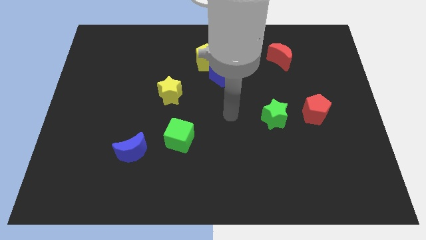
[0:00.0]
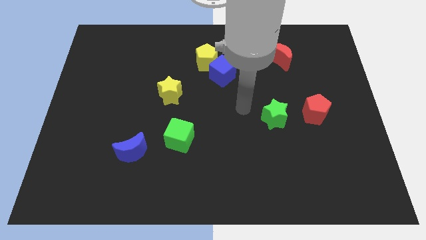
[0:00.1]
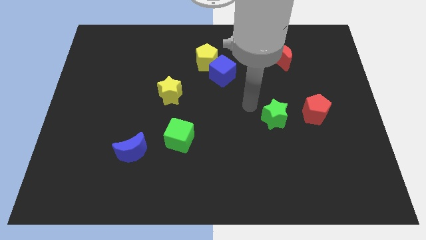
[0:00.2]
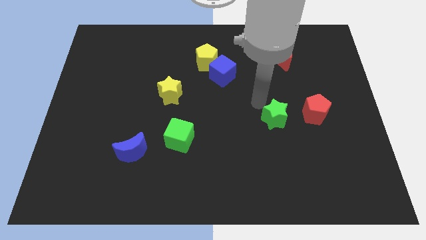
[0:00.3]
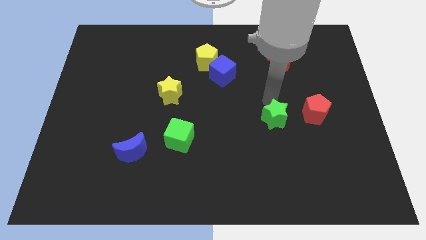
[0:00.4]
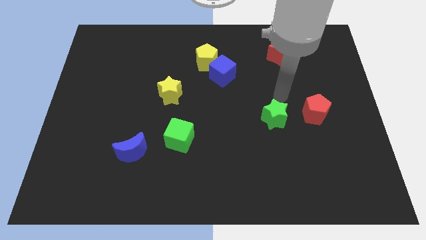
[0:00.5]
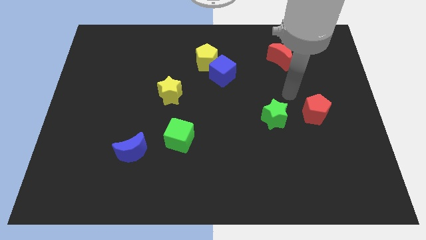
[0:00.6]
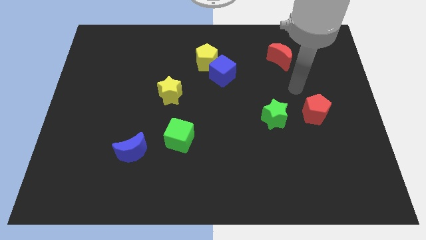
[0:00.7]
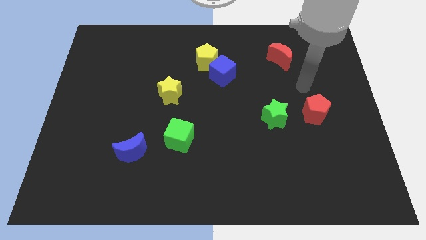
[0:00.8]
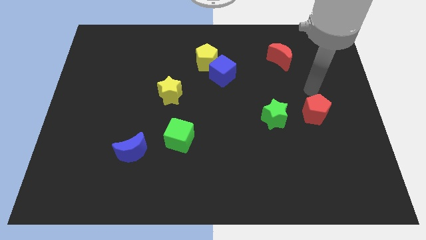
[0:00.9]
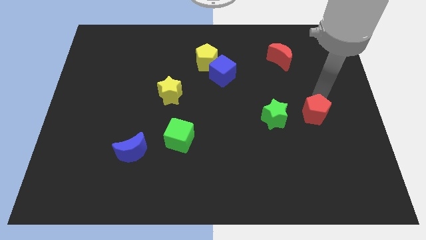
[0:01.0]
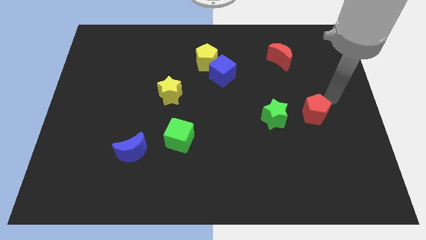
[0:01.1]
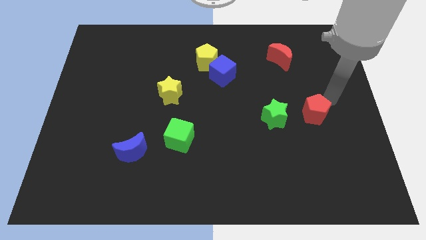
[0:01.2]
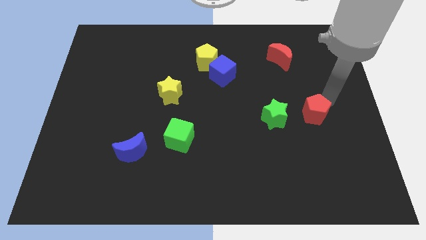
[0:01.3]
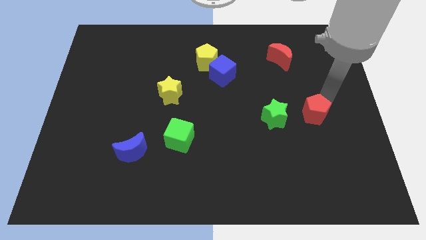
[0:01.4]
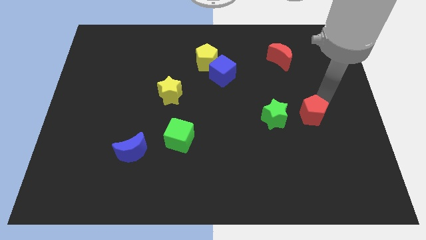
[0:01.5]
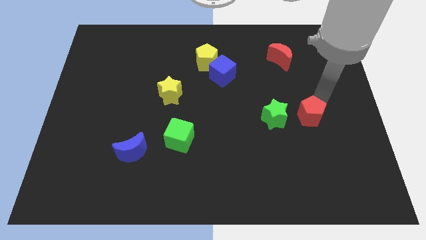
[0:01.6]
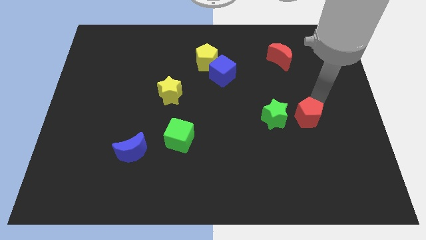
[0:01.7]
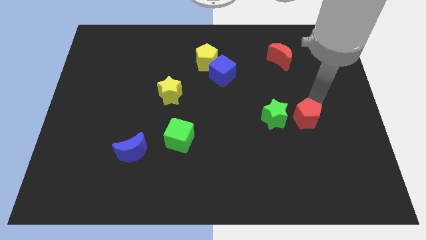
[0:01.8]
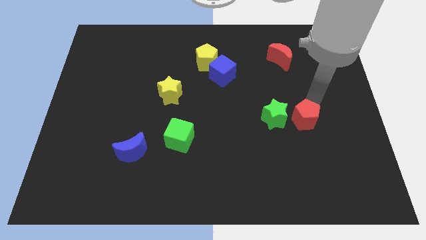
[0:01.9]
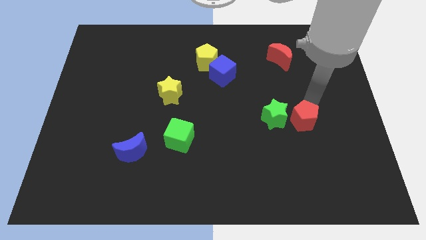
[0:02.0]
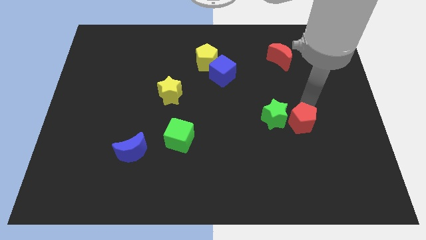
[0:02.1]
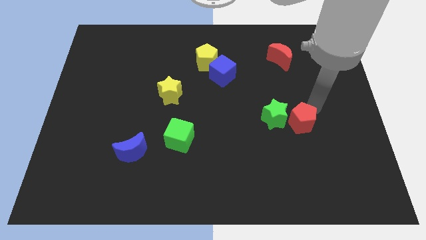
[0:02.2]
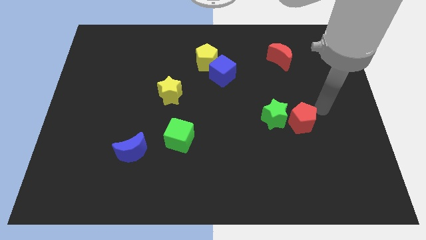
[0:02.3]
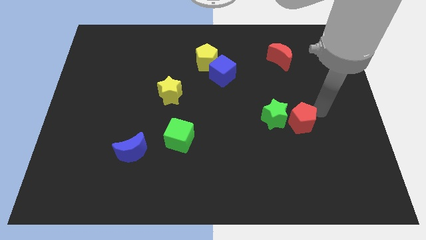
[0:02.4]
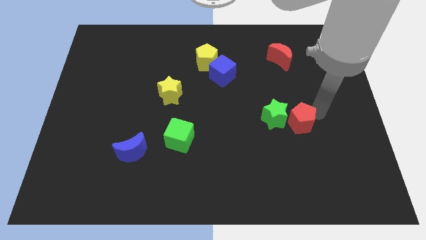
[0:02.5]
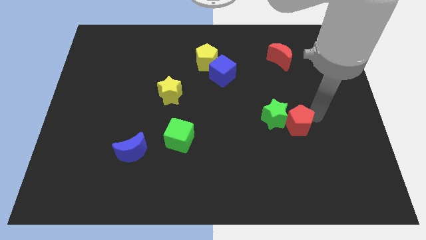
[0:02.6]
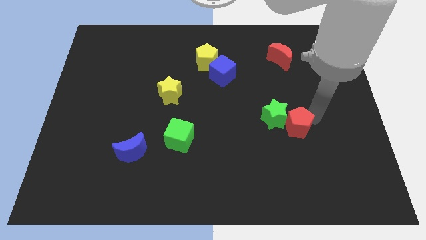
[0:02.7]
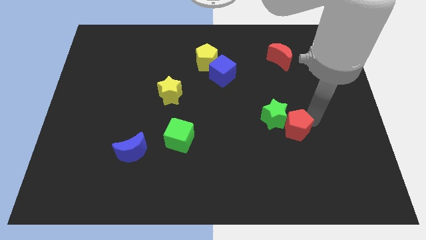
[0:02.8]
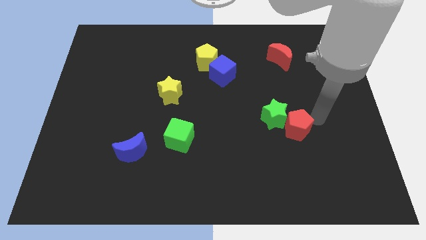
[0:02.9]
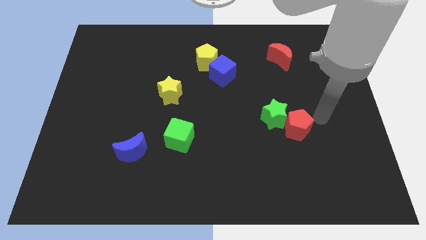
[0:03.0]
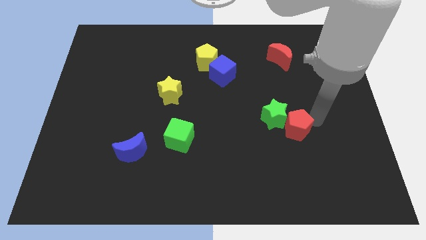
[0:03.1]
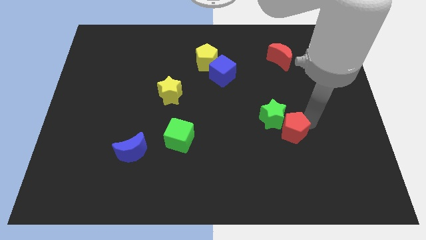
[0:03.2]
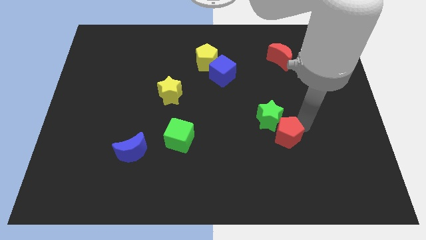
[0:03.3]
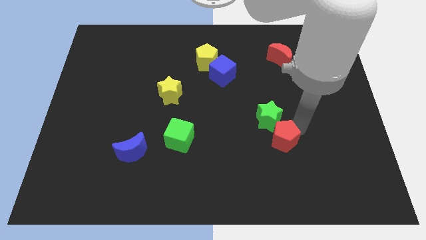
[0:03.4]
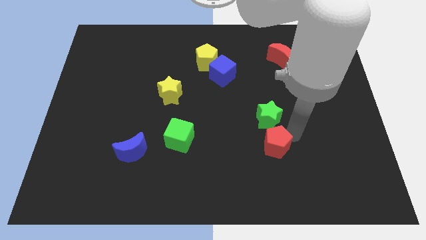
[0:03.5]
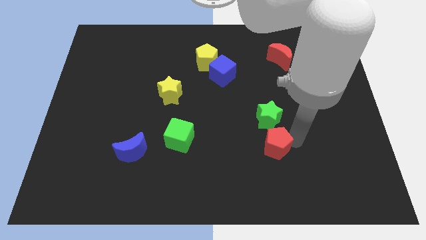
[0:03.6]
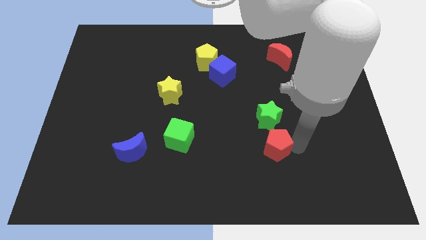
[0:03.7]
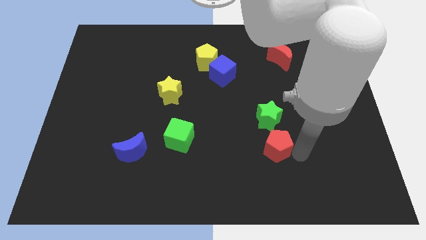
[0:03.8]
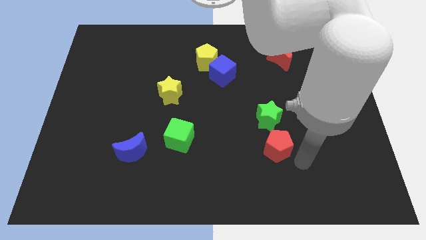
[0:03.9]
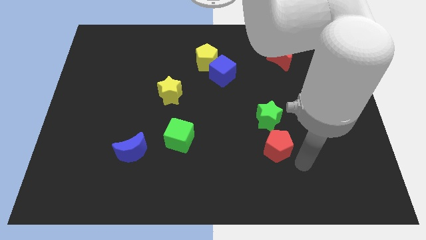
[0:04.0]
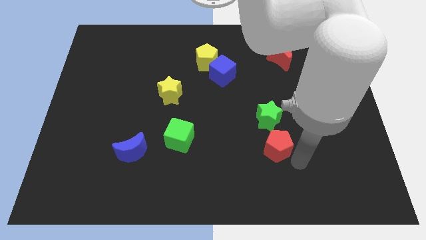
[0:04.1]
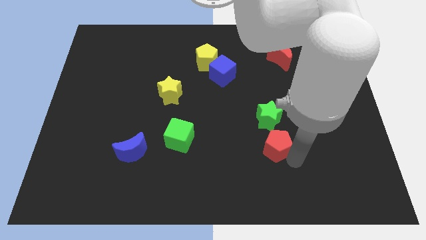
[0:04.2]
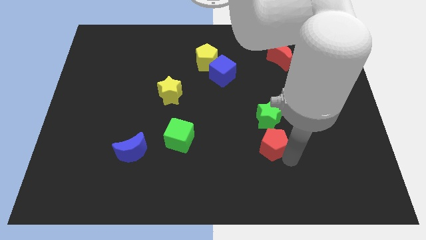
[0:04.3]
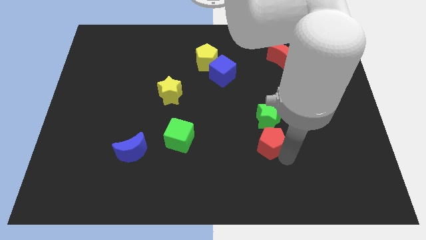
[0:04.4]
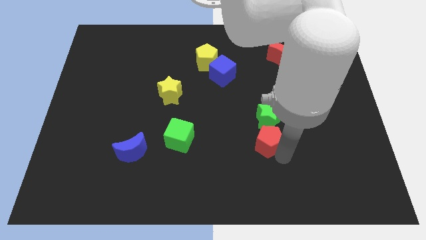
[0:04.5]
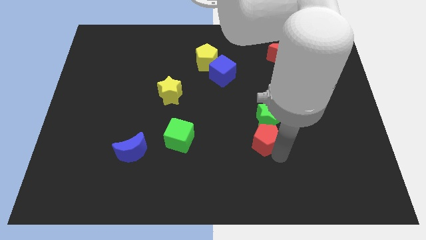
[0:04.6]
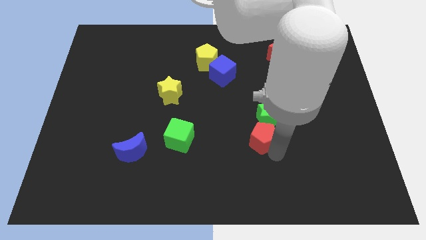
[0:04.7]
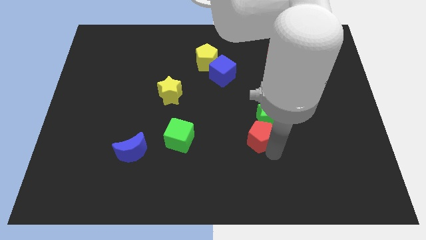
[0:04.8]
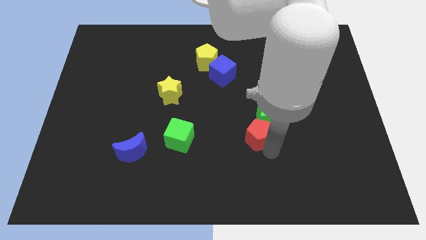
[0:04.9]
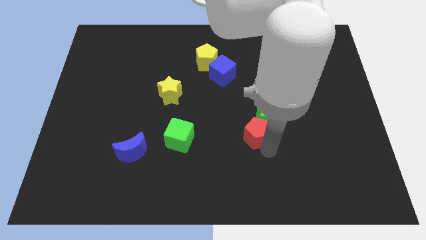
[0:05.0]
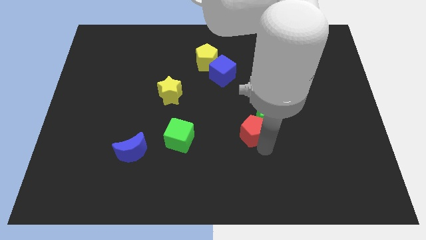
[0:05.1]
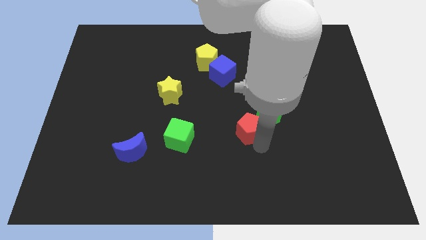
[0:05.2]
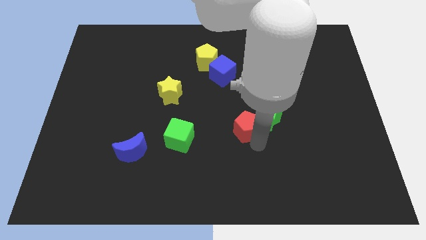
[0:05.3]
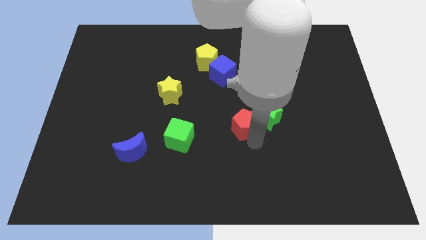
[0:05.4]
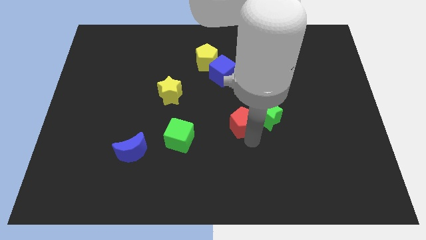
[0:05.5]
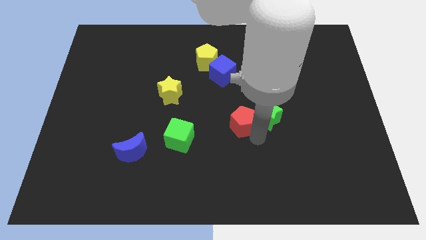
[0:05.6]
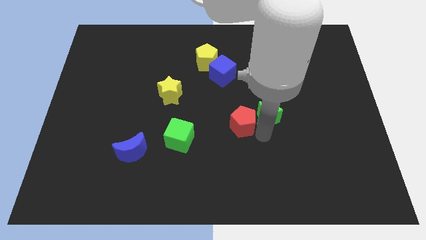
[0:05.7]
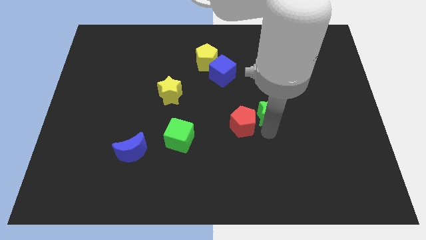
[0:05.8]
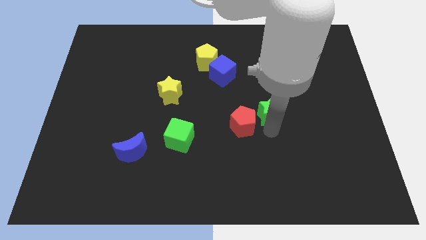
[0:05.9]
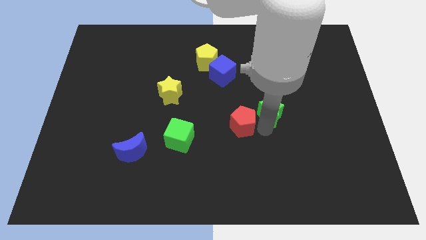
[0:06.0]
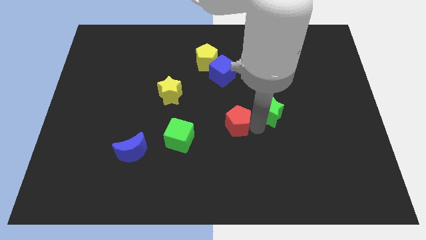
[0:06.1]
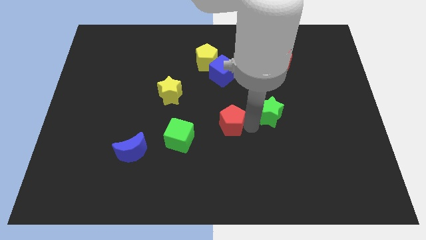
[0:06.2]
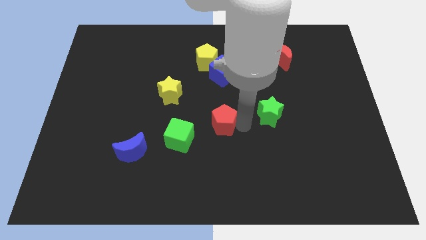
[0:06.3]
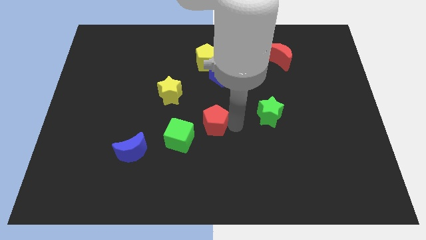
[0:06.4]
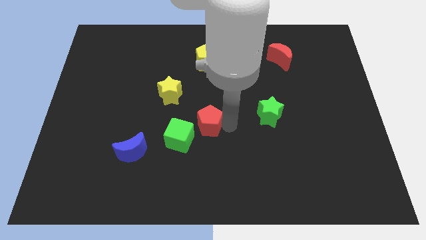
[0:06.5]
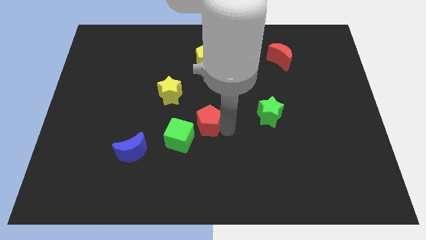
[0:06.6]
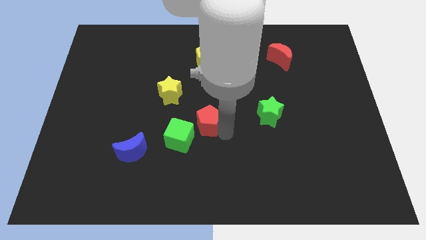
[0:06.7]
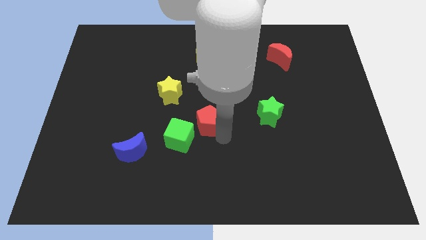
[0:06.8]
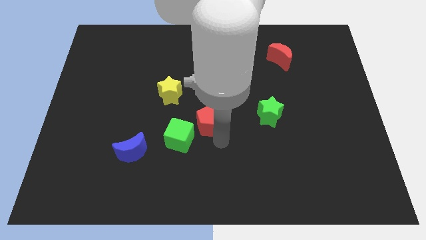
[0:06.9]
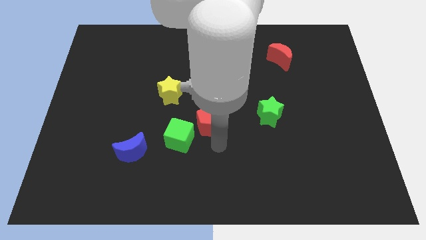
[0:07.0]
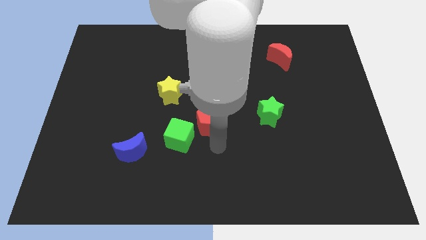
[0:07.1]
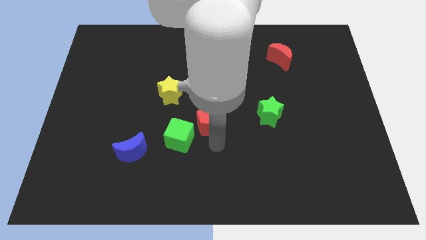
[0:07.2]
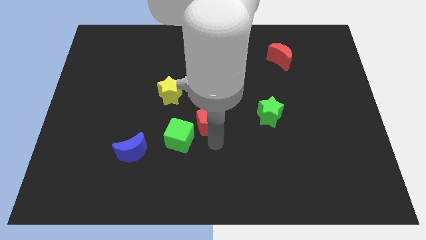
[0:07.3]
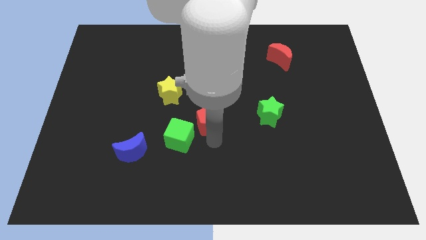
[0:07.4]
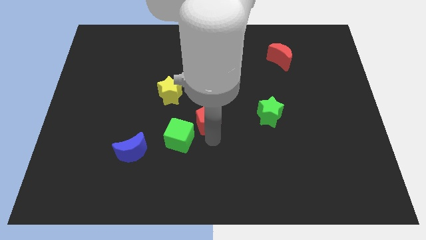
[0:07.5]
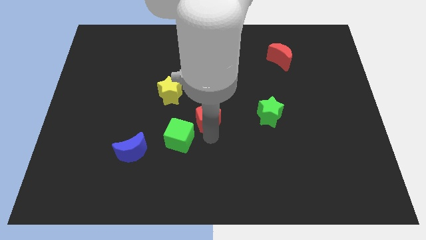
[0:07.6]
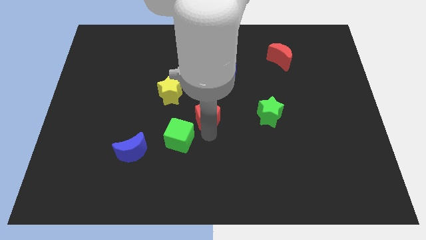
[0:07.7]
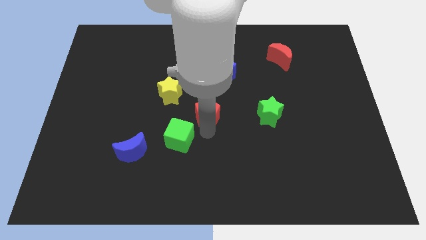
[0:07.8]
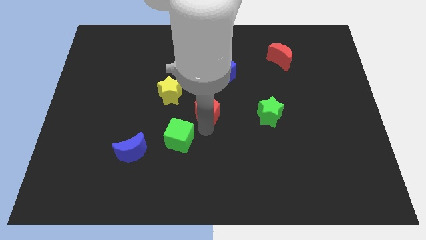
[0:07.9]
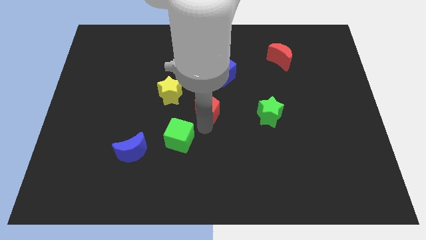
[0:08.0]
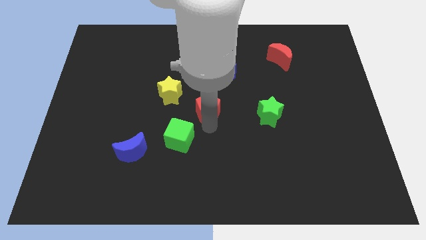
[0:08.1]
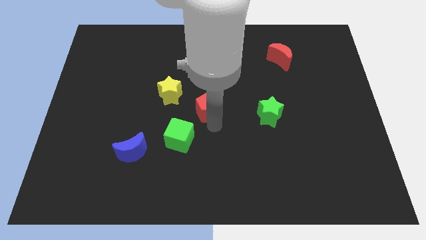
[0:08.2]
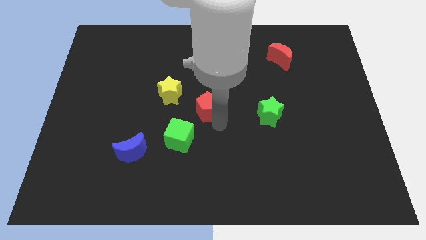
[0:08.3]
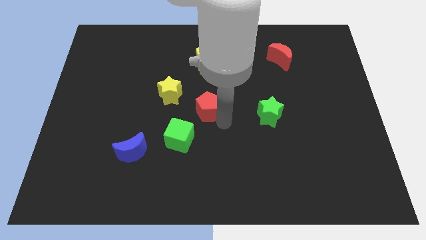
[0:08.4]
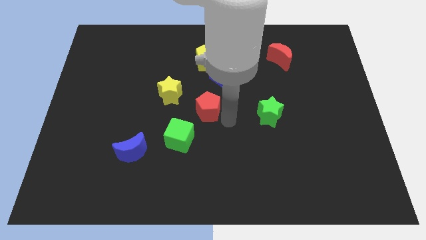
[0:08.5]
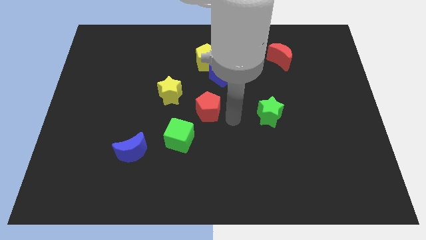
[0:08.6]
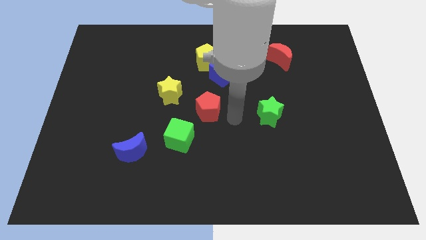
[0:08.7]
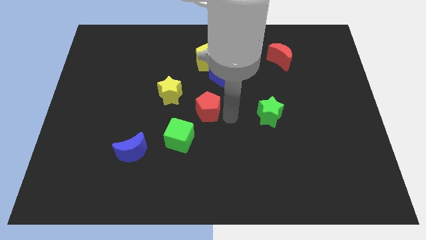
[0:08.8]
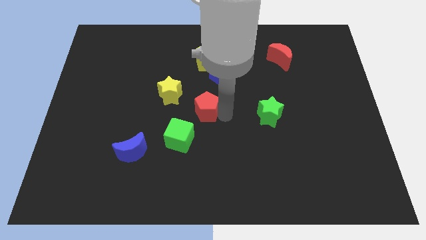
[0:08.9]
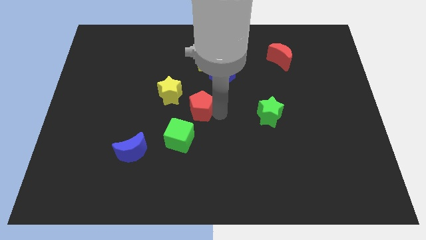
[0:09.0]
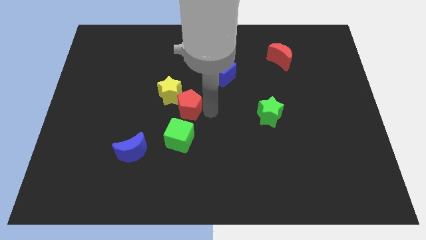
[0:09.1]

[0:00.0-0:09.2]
put the red pentagon next to the yellow star
